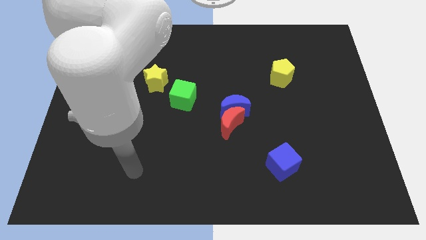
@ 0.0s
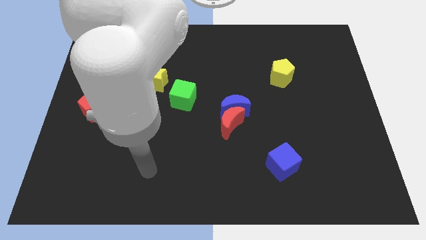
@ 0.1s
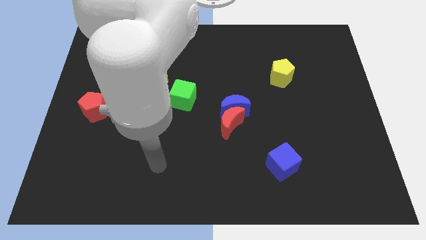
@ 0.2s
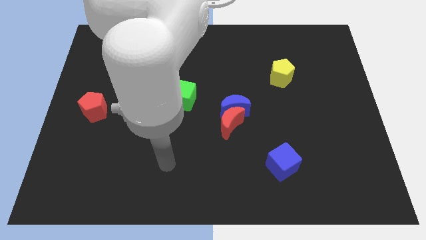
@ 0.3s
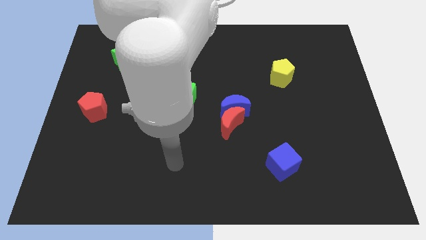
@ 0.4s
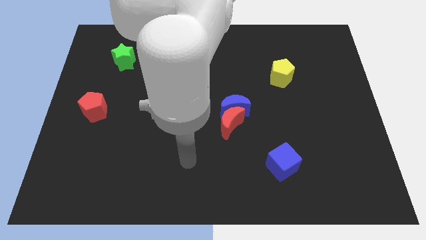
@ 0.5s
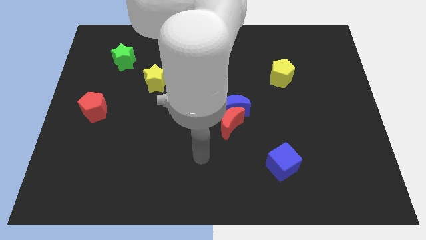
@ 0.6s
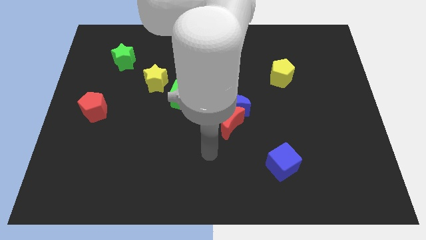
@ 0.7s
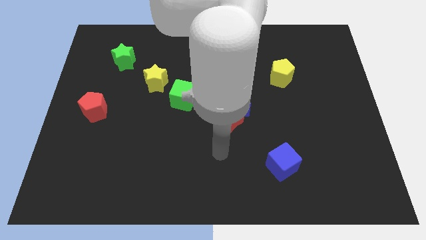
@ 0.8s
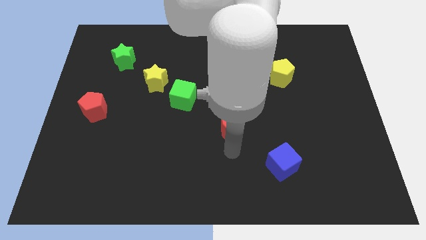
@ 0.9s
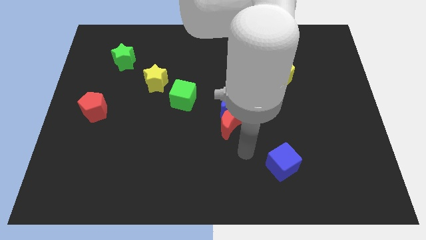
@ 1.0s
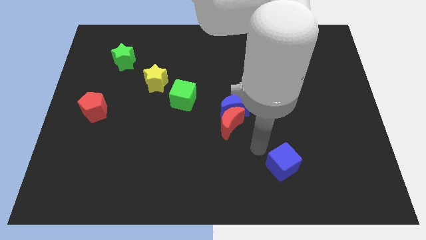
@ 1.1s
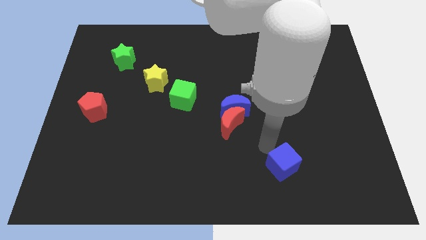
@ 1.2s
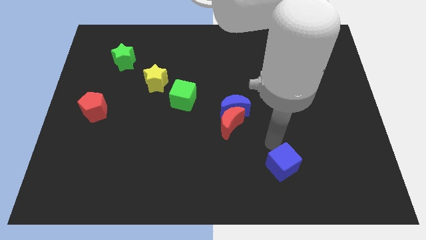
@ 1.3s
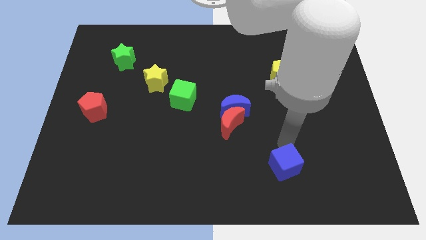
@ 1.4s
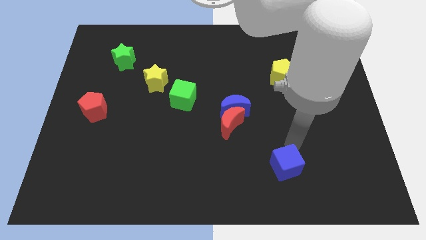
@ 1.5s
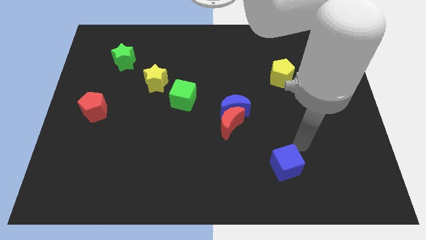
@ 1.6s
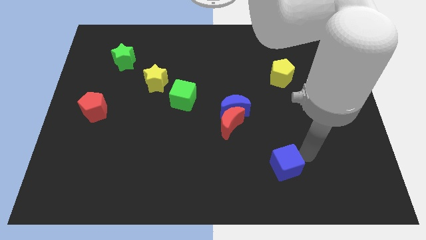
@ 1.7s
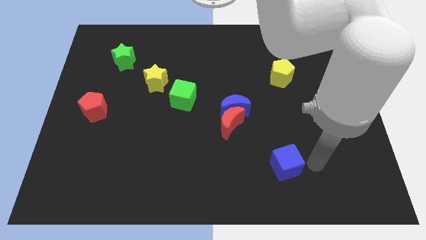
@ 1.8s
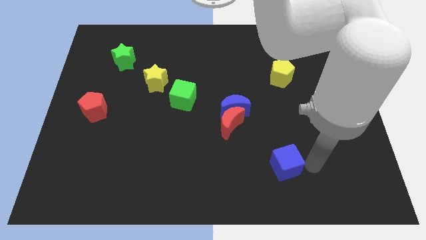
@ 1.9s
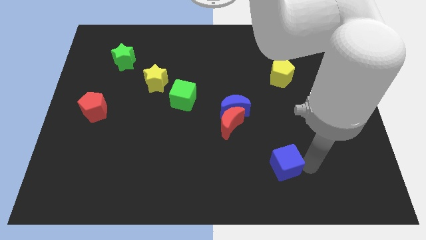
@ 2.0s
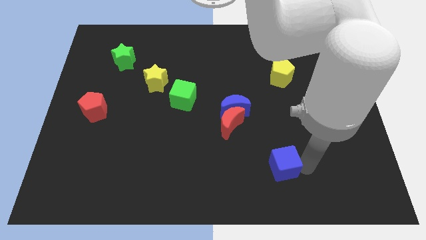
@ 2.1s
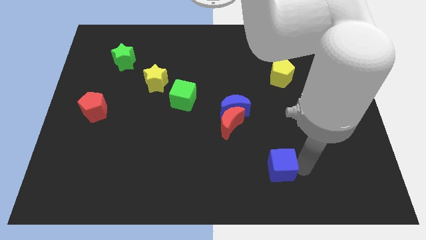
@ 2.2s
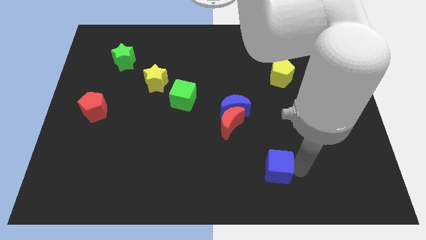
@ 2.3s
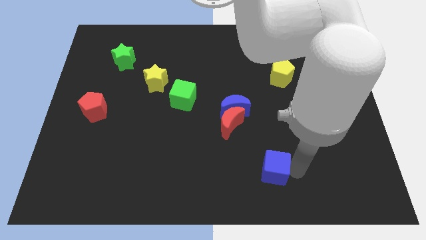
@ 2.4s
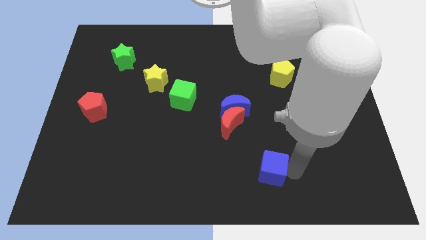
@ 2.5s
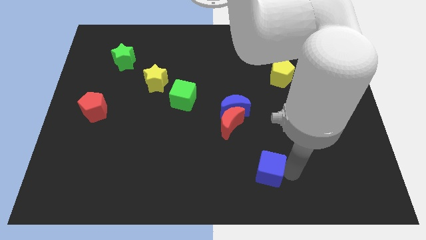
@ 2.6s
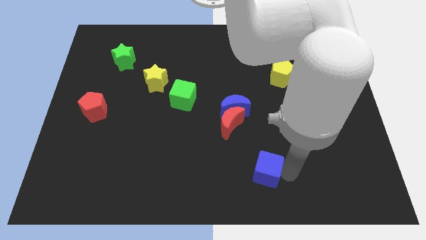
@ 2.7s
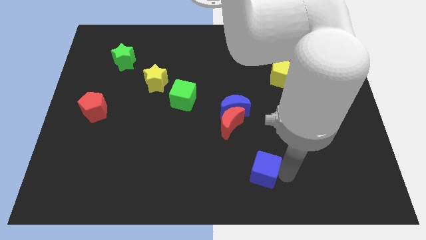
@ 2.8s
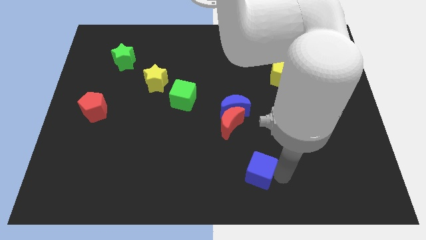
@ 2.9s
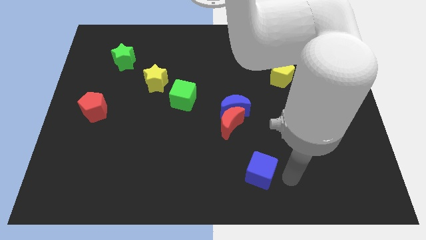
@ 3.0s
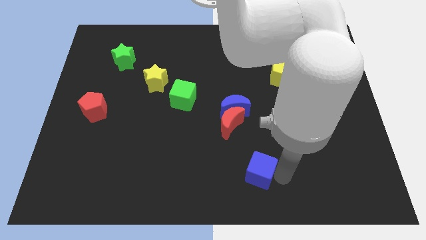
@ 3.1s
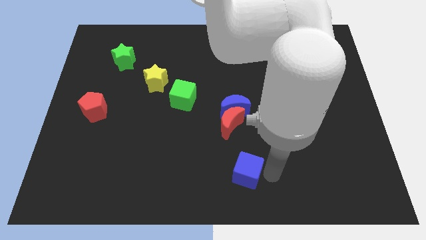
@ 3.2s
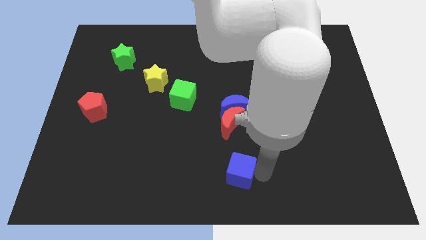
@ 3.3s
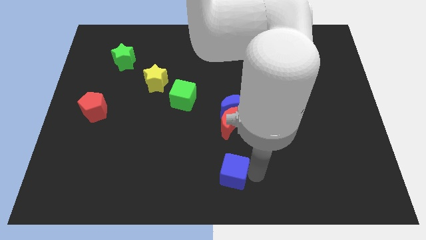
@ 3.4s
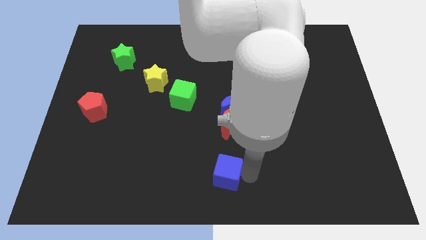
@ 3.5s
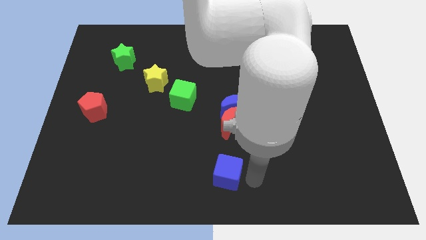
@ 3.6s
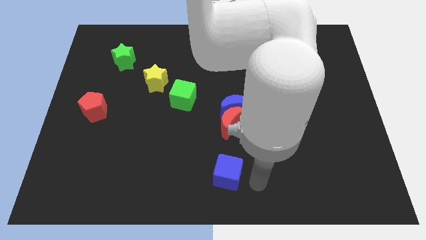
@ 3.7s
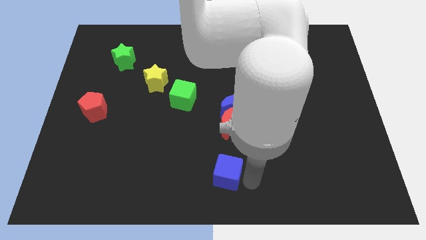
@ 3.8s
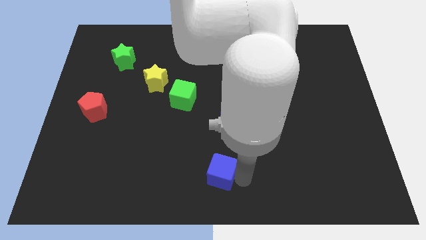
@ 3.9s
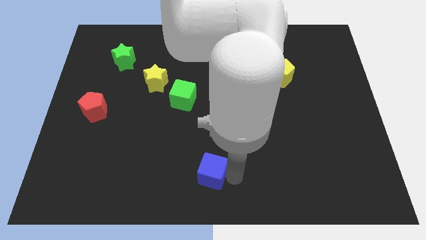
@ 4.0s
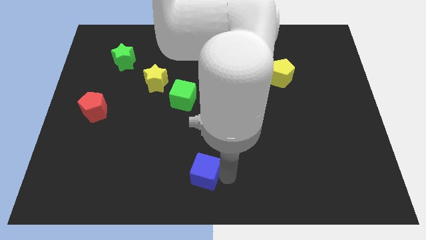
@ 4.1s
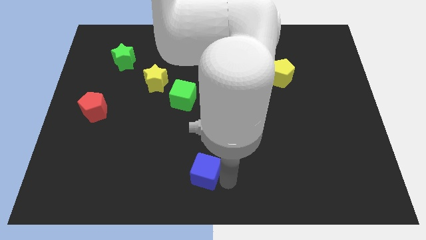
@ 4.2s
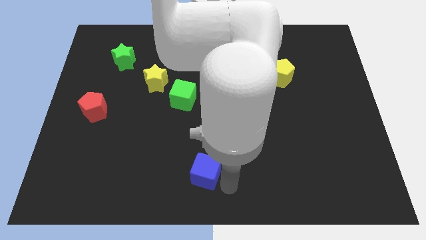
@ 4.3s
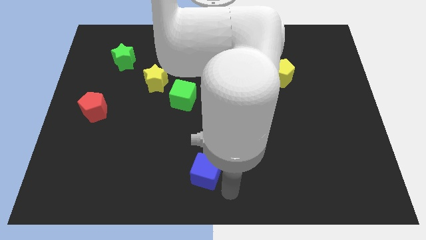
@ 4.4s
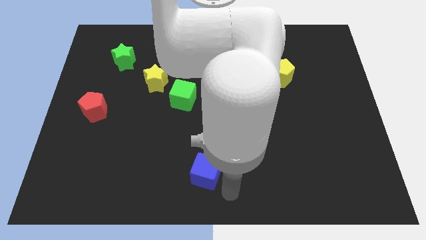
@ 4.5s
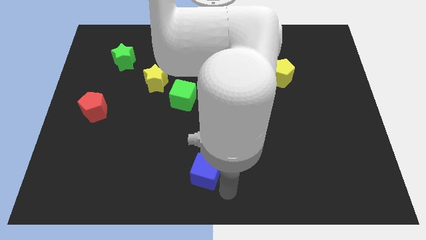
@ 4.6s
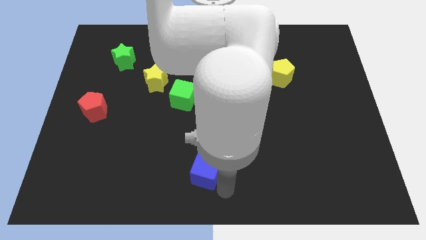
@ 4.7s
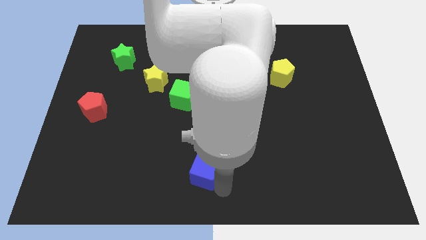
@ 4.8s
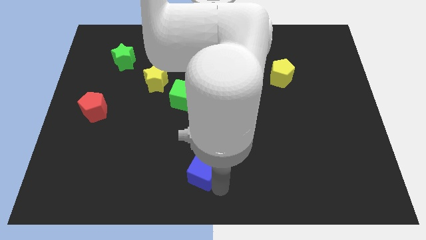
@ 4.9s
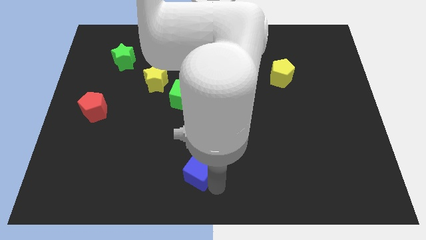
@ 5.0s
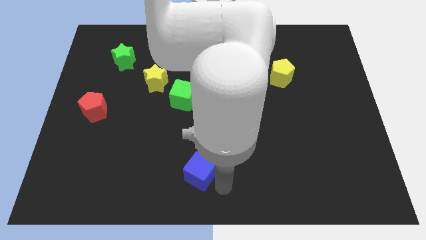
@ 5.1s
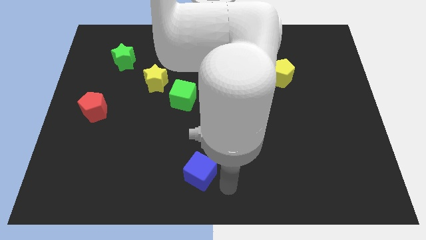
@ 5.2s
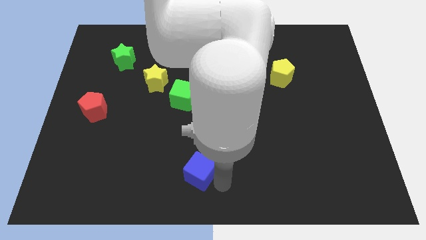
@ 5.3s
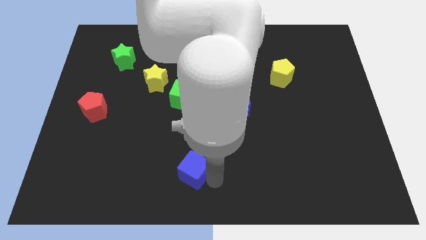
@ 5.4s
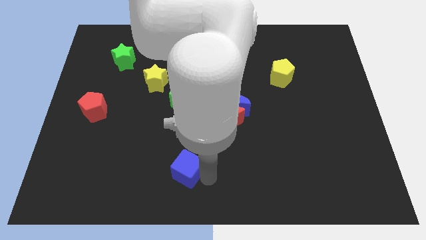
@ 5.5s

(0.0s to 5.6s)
move the blue cube left

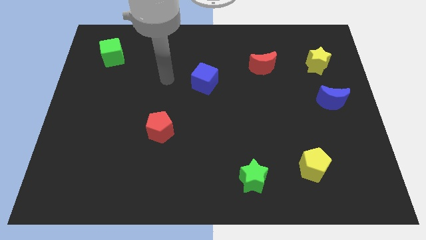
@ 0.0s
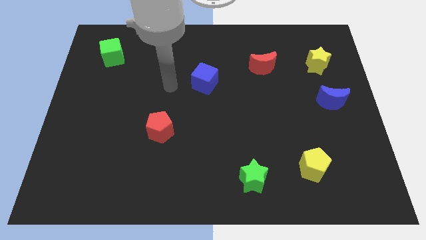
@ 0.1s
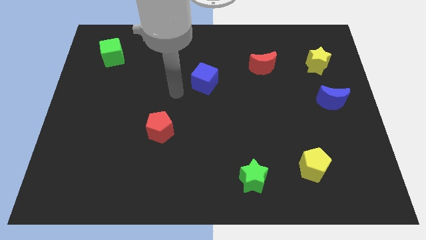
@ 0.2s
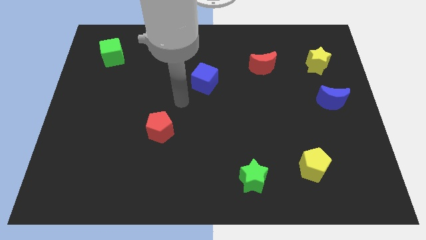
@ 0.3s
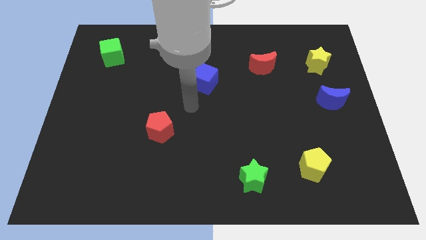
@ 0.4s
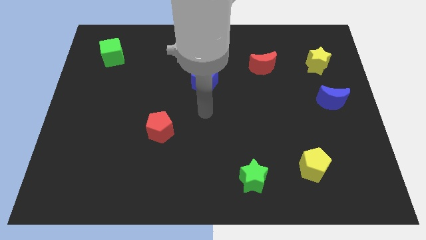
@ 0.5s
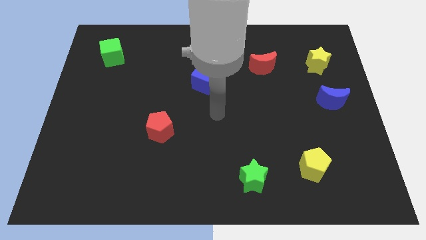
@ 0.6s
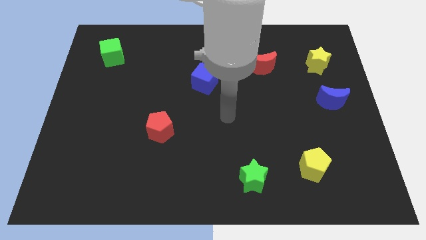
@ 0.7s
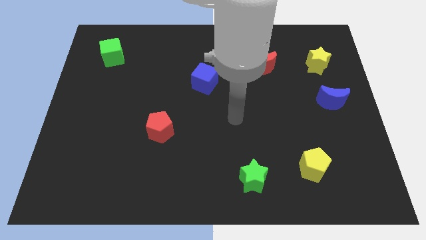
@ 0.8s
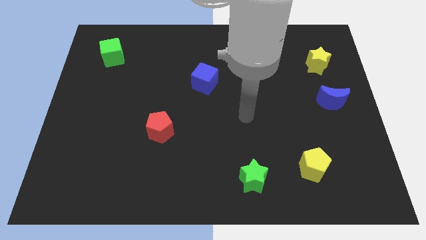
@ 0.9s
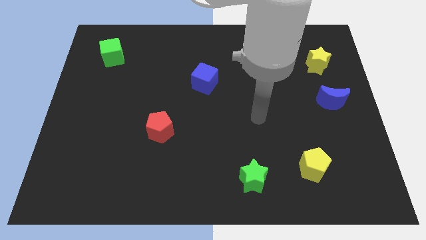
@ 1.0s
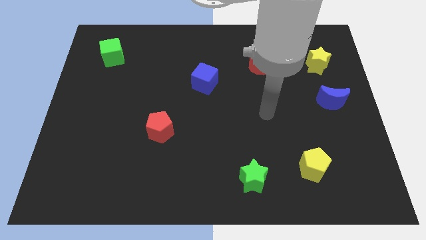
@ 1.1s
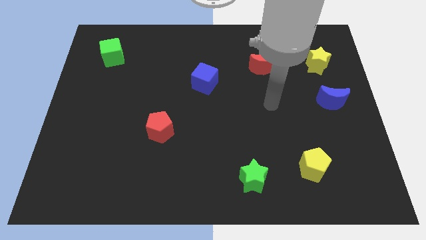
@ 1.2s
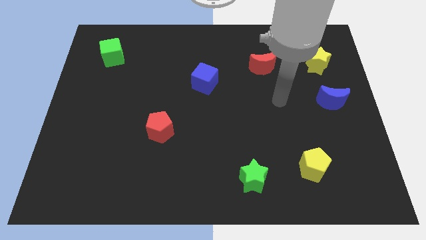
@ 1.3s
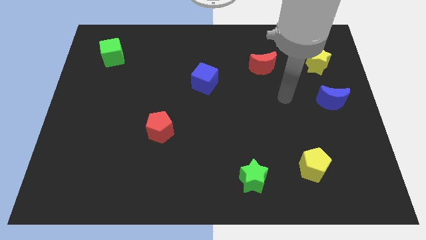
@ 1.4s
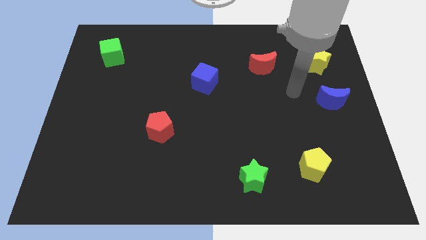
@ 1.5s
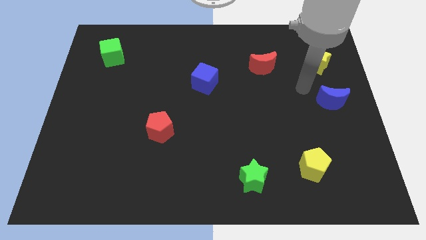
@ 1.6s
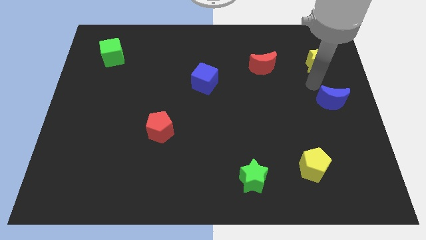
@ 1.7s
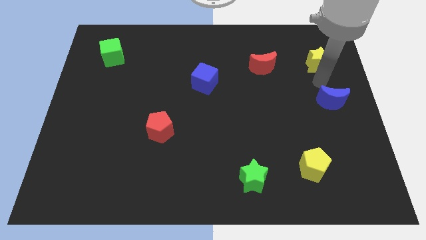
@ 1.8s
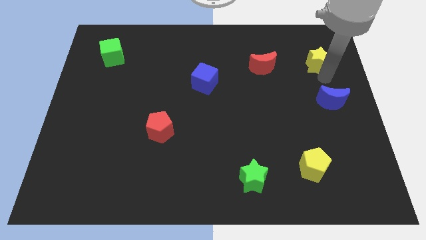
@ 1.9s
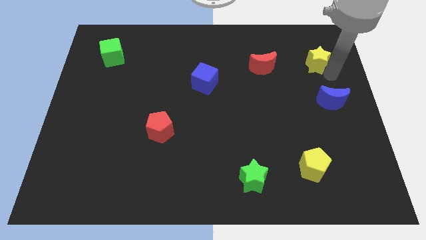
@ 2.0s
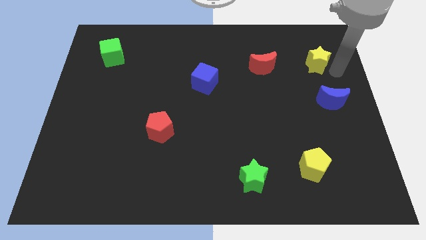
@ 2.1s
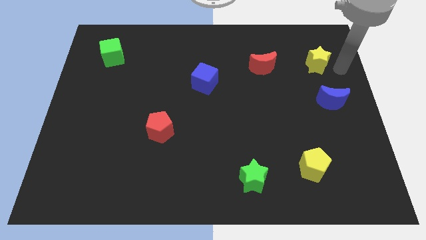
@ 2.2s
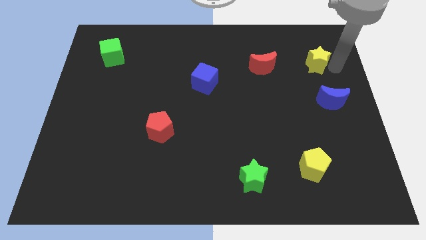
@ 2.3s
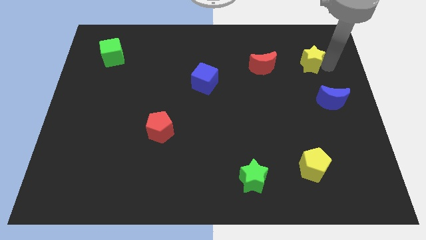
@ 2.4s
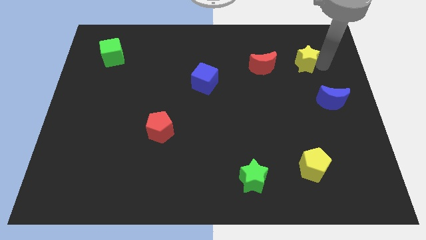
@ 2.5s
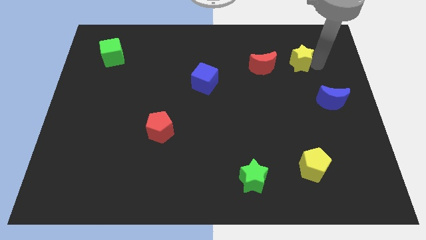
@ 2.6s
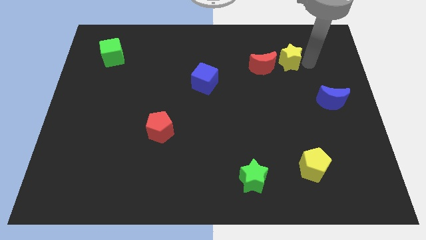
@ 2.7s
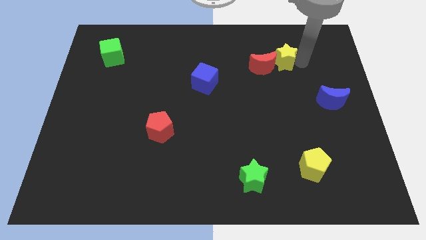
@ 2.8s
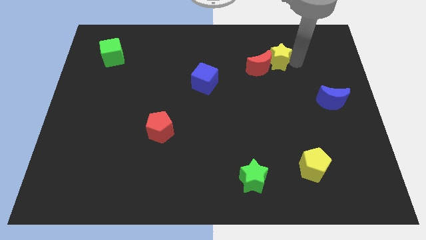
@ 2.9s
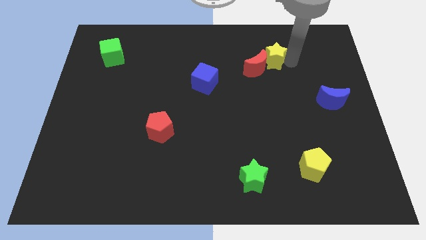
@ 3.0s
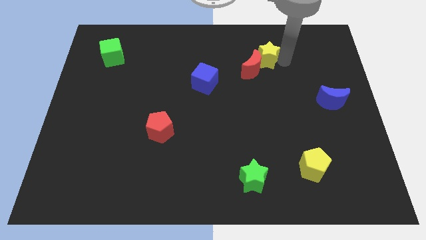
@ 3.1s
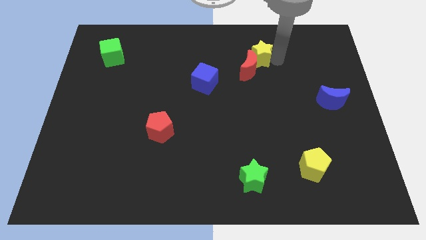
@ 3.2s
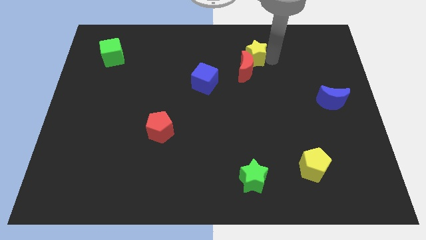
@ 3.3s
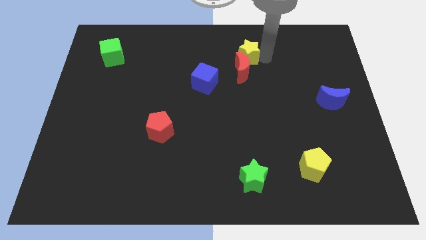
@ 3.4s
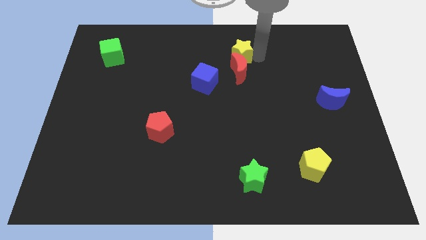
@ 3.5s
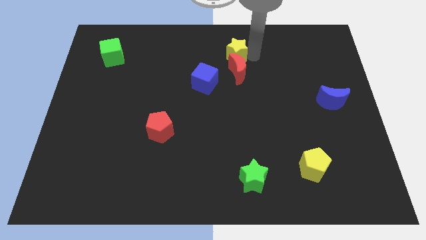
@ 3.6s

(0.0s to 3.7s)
move the yellow star left
